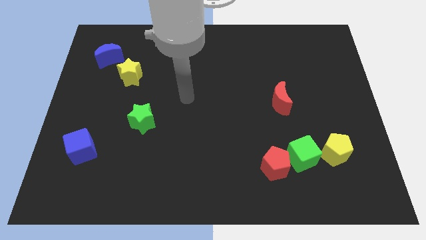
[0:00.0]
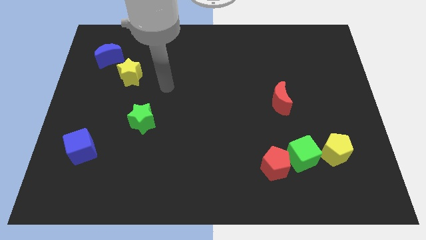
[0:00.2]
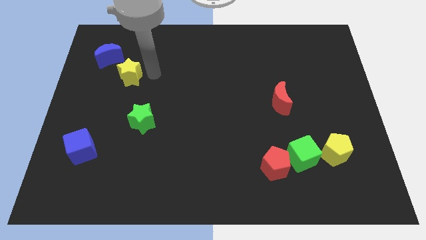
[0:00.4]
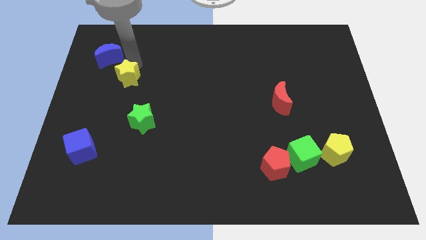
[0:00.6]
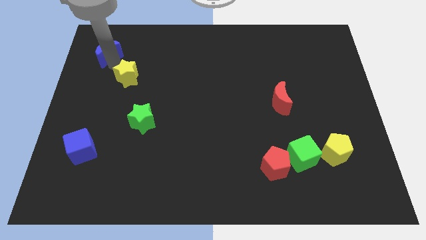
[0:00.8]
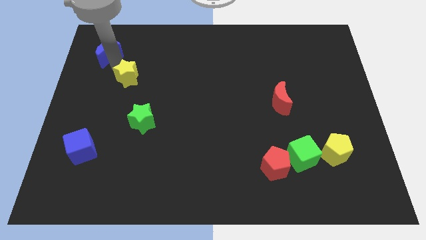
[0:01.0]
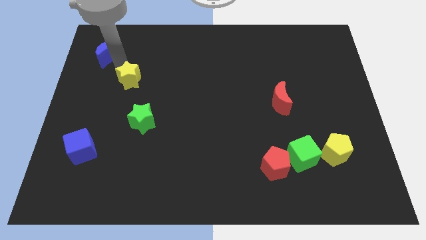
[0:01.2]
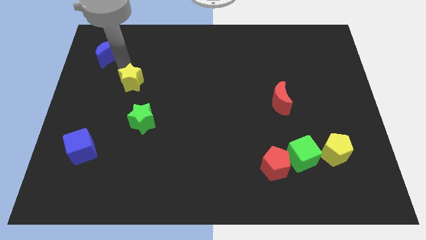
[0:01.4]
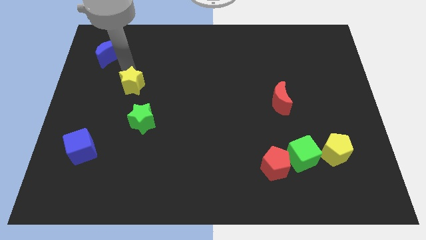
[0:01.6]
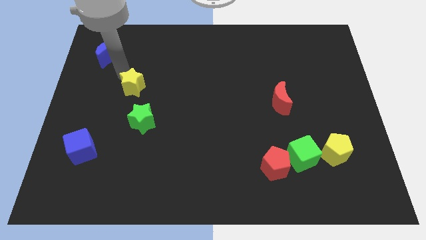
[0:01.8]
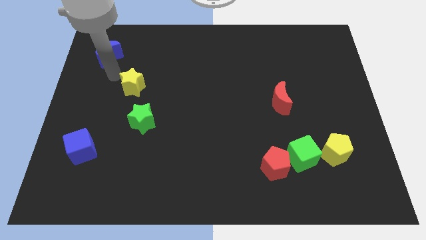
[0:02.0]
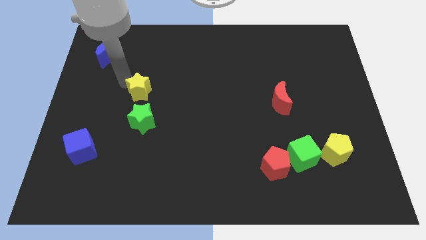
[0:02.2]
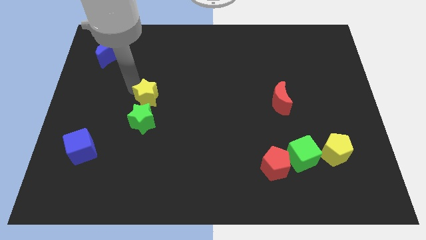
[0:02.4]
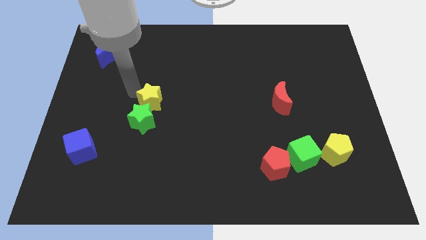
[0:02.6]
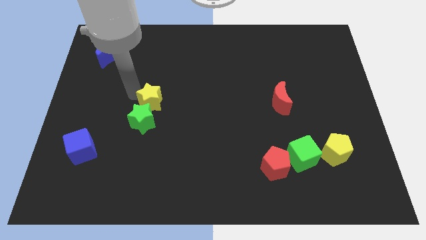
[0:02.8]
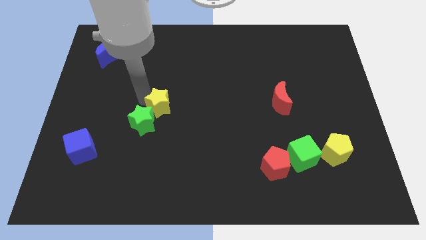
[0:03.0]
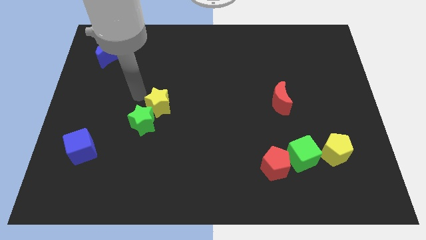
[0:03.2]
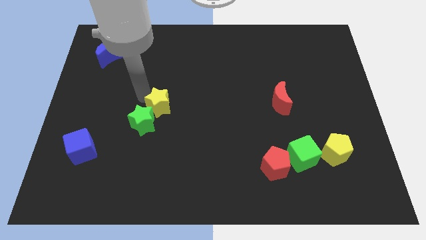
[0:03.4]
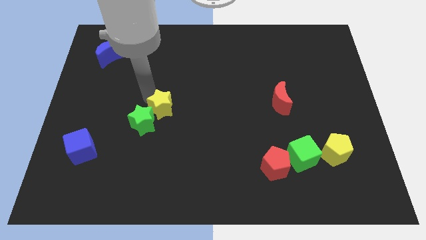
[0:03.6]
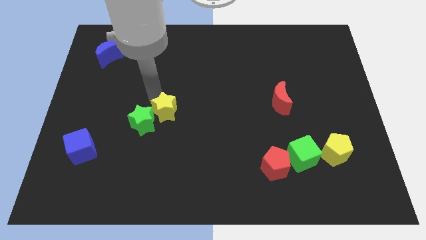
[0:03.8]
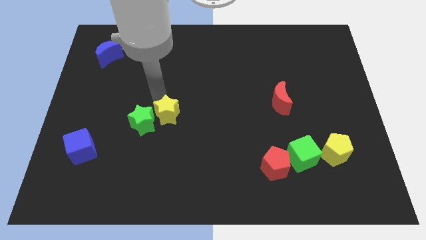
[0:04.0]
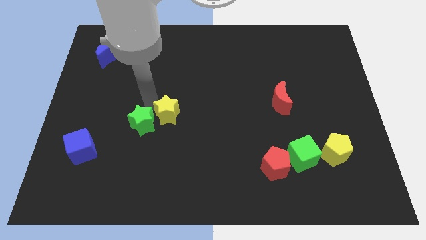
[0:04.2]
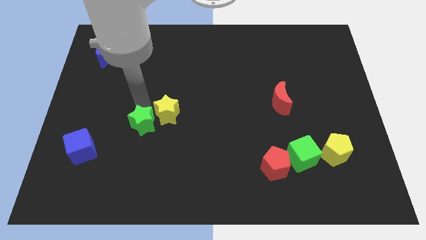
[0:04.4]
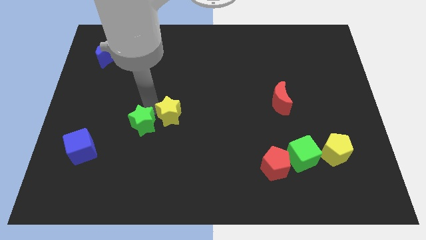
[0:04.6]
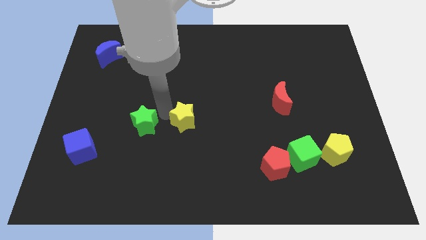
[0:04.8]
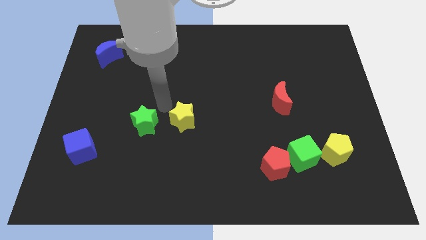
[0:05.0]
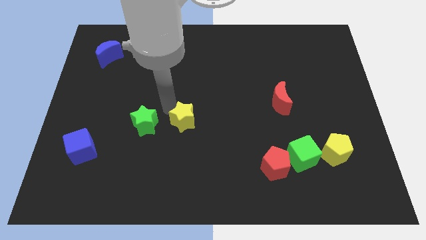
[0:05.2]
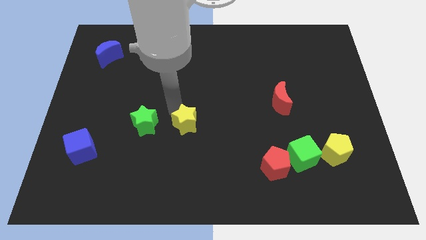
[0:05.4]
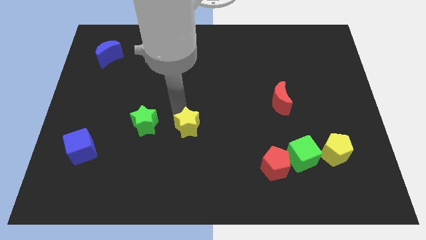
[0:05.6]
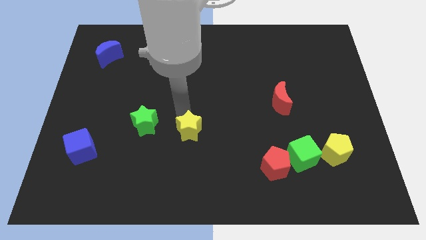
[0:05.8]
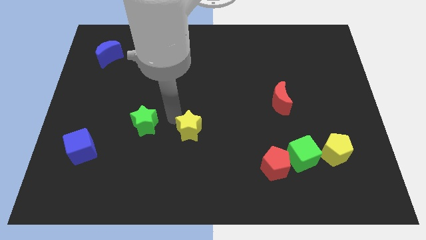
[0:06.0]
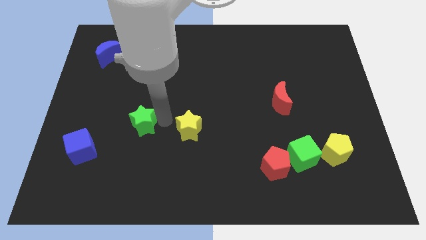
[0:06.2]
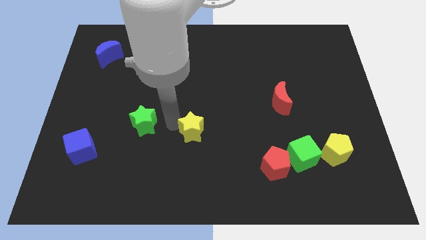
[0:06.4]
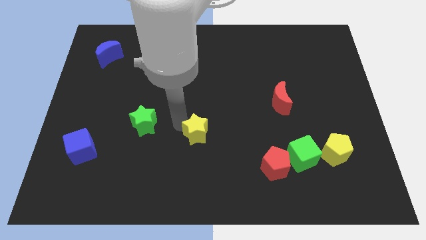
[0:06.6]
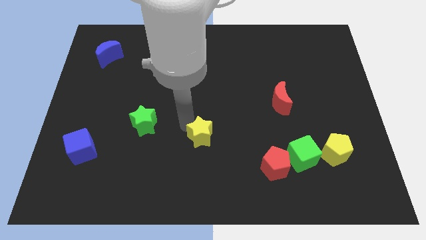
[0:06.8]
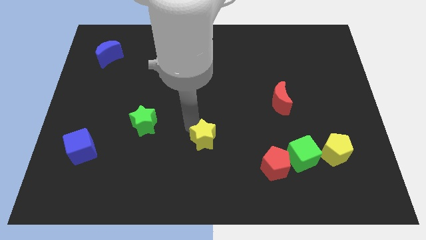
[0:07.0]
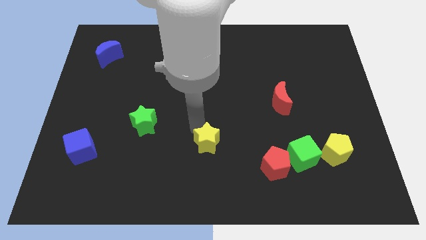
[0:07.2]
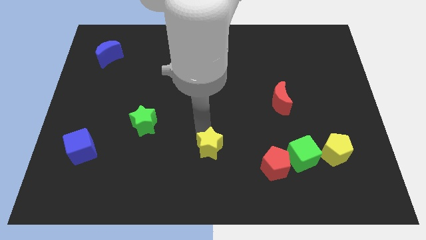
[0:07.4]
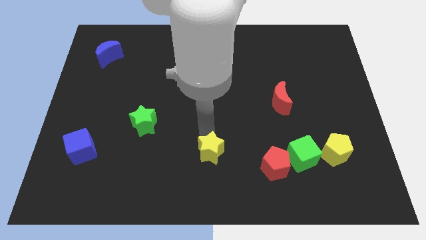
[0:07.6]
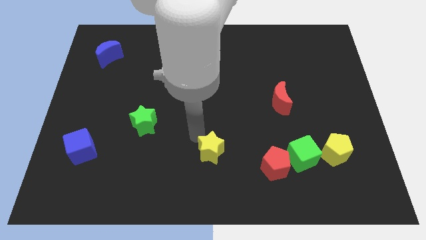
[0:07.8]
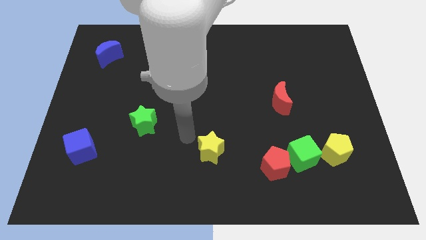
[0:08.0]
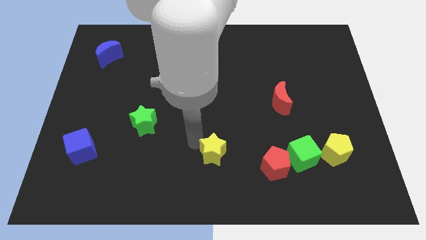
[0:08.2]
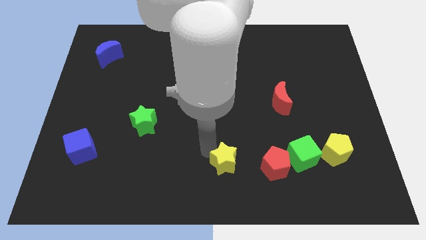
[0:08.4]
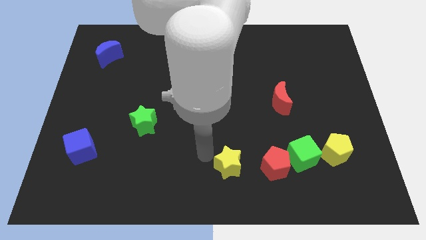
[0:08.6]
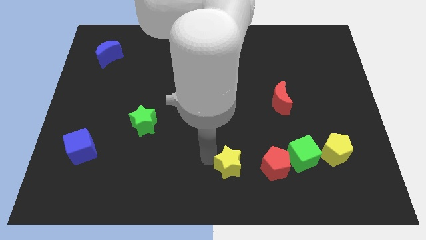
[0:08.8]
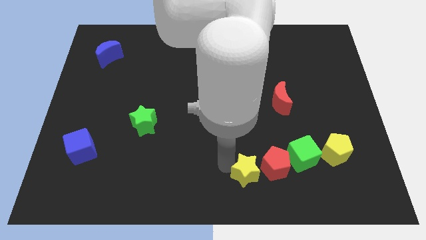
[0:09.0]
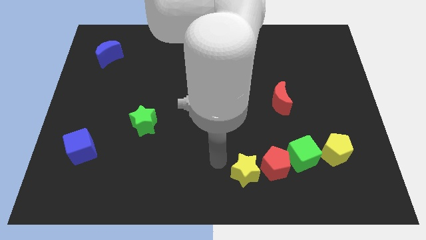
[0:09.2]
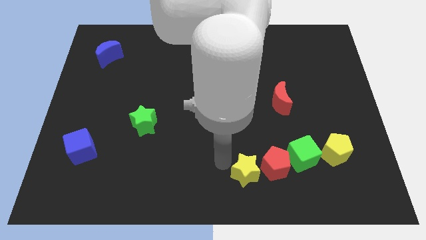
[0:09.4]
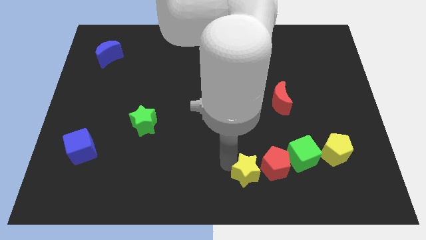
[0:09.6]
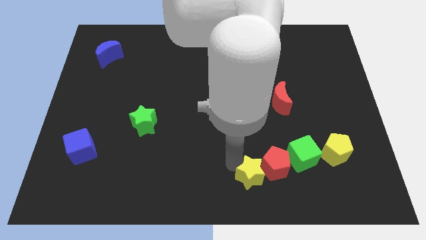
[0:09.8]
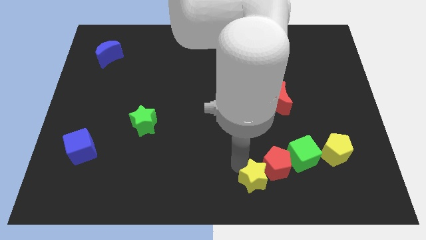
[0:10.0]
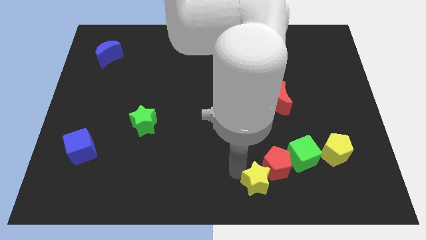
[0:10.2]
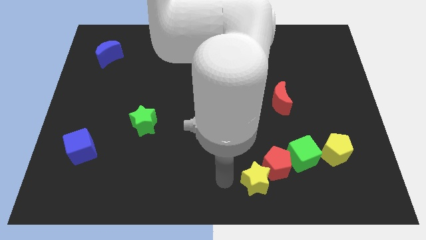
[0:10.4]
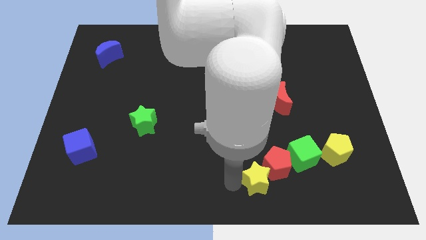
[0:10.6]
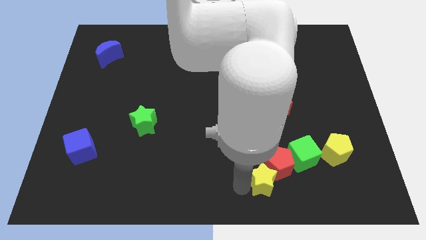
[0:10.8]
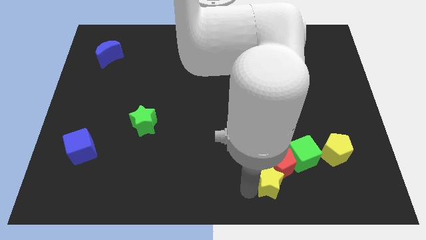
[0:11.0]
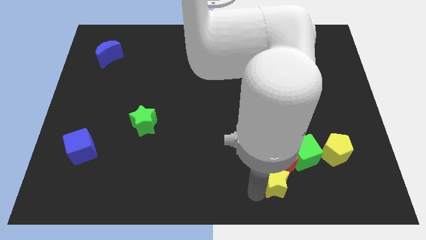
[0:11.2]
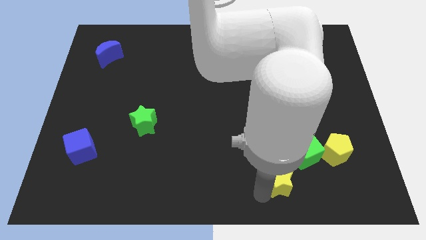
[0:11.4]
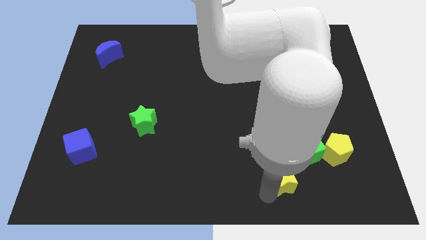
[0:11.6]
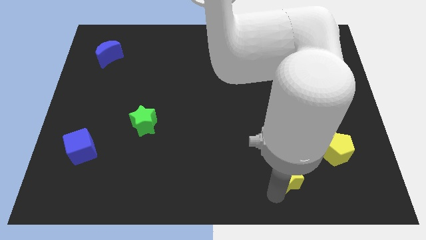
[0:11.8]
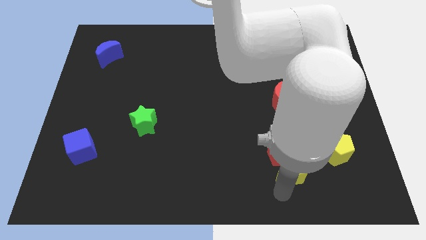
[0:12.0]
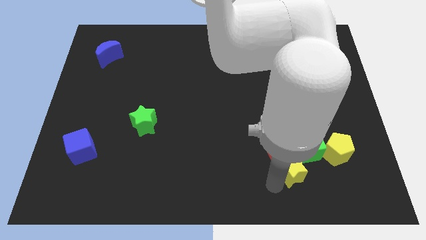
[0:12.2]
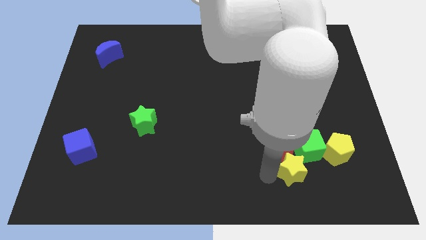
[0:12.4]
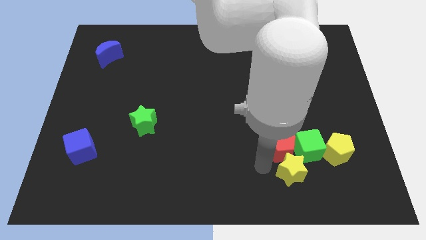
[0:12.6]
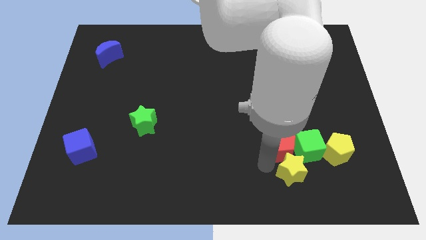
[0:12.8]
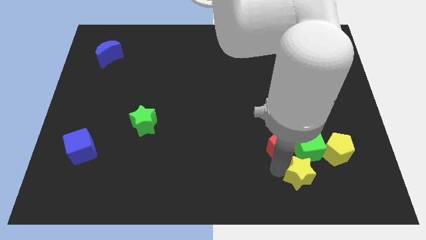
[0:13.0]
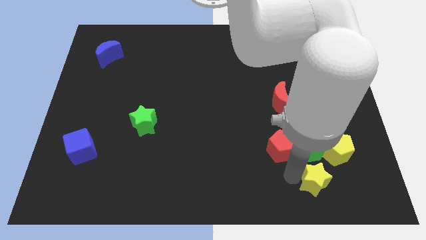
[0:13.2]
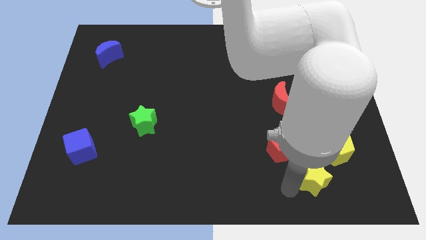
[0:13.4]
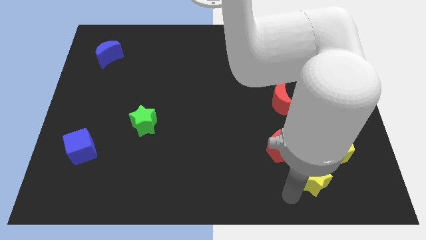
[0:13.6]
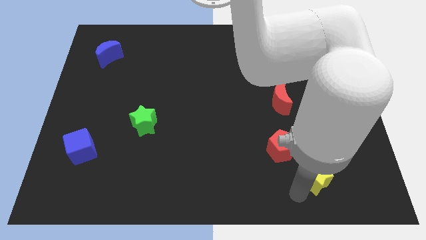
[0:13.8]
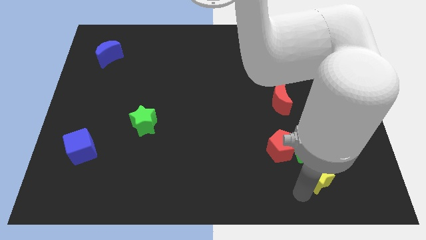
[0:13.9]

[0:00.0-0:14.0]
slide the yellow star to the bottom right side of the green cube

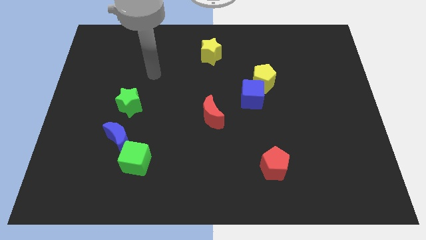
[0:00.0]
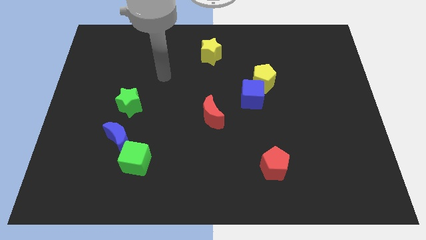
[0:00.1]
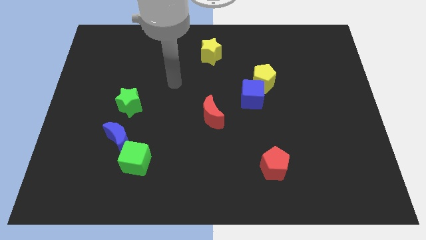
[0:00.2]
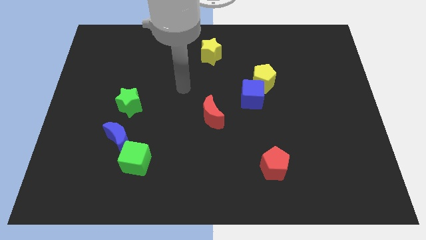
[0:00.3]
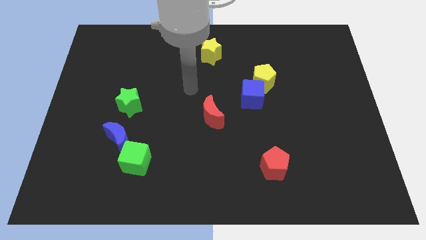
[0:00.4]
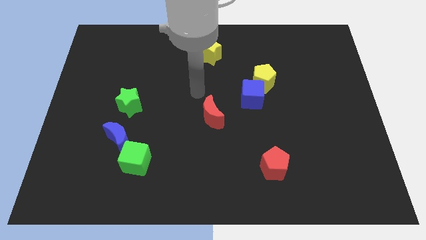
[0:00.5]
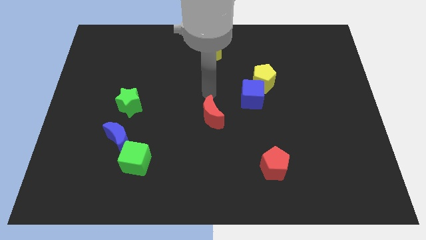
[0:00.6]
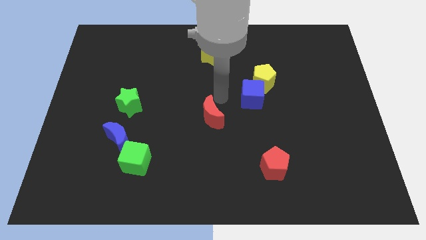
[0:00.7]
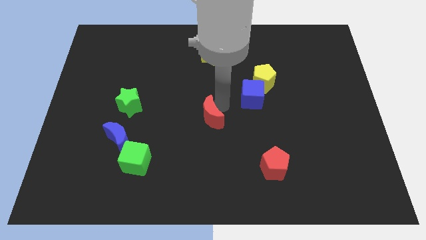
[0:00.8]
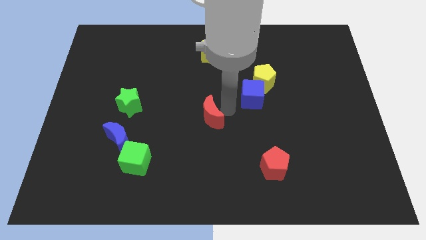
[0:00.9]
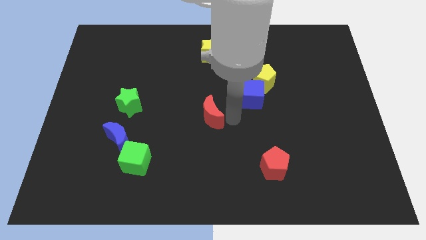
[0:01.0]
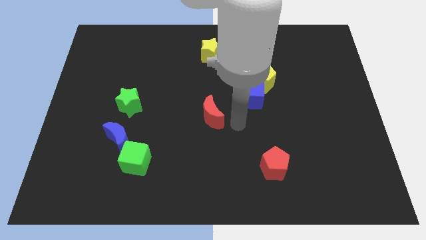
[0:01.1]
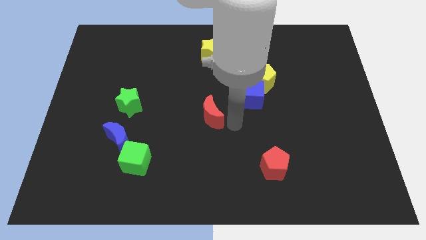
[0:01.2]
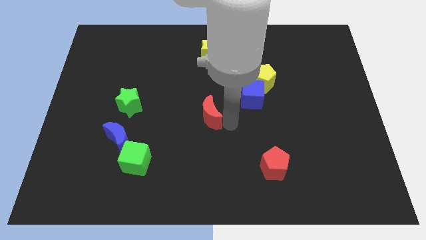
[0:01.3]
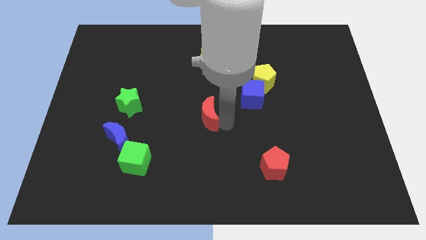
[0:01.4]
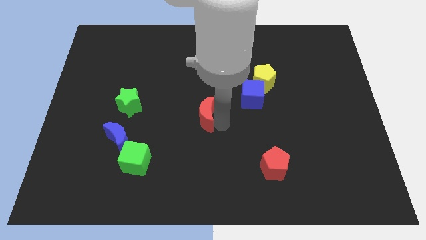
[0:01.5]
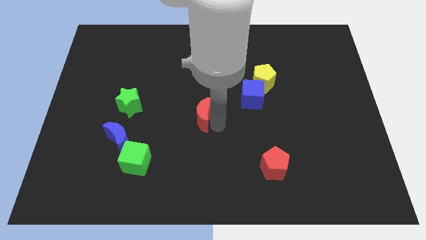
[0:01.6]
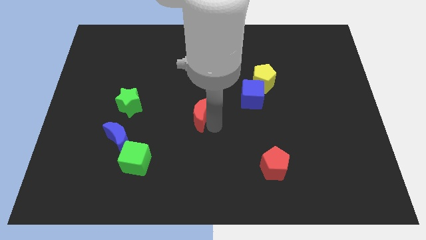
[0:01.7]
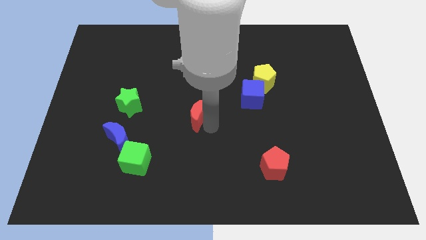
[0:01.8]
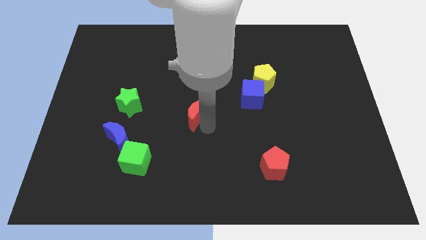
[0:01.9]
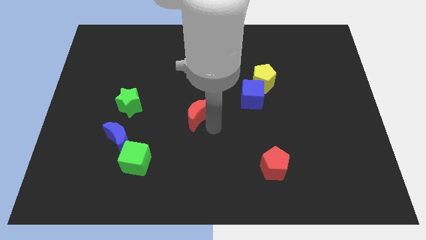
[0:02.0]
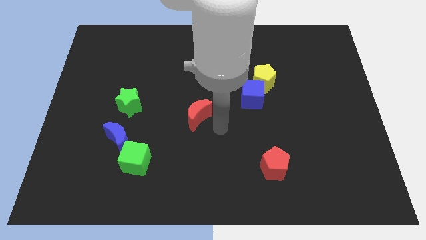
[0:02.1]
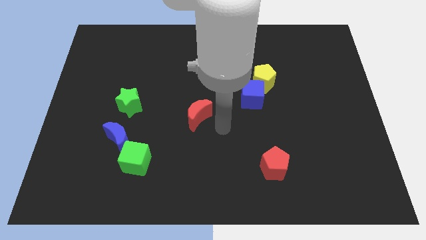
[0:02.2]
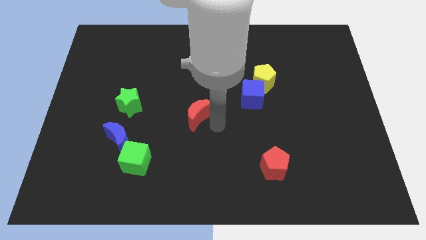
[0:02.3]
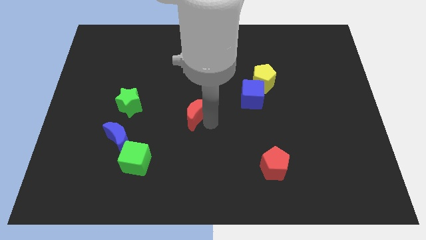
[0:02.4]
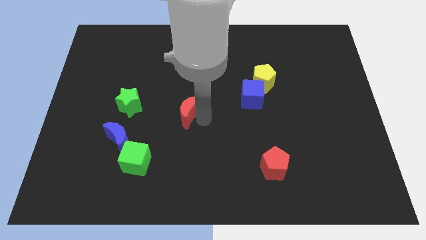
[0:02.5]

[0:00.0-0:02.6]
slide the red moon right of the green star
